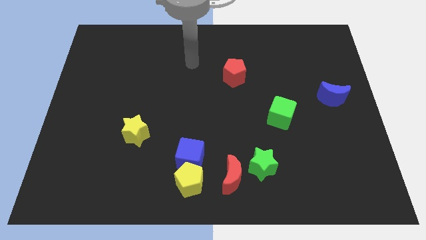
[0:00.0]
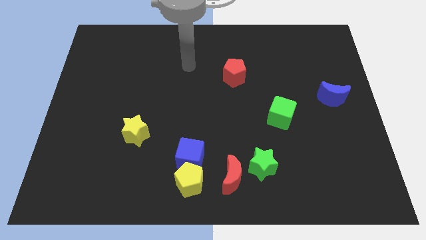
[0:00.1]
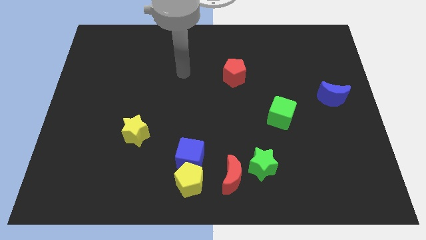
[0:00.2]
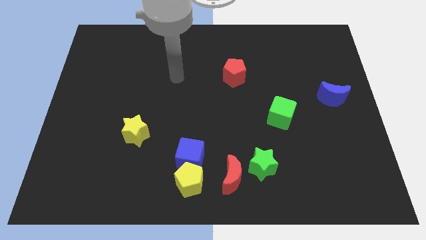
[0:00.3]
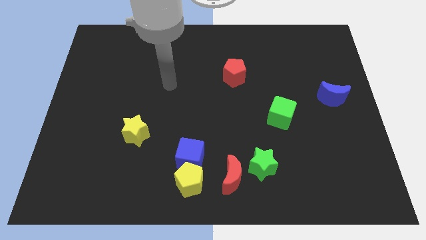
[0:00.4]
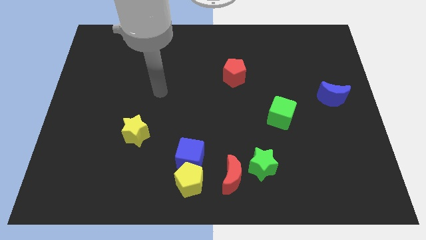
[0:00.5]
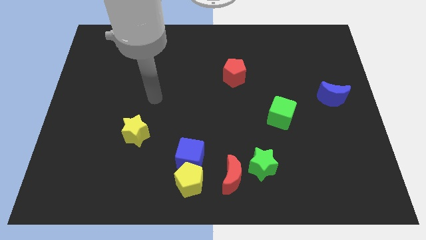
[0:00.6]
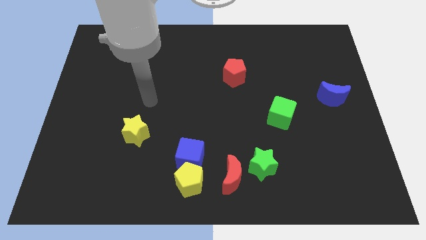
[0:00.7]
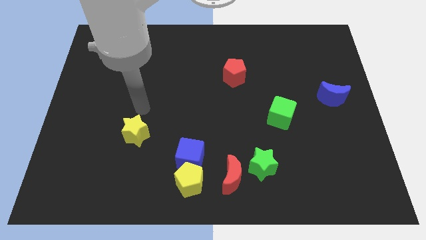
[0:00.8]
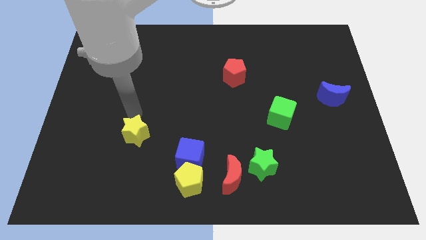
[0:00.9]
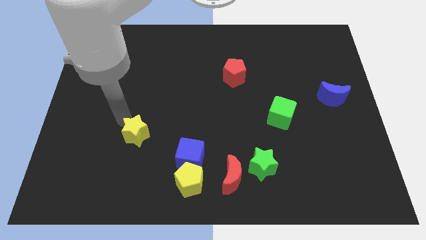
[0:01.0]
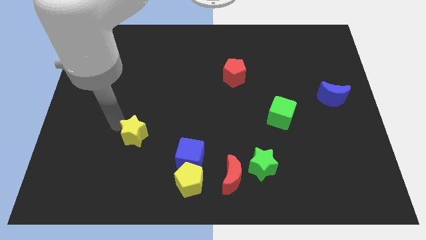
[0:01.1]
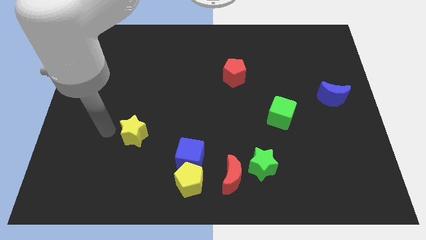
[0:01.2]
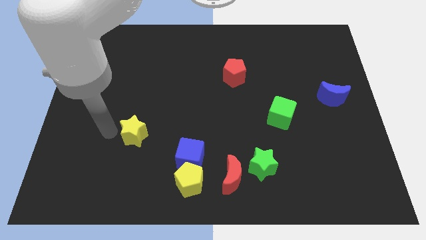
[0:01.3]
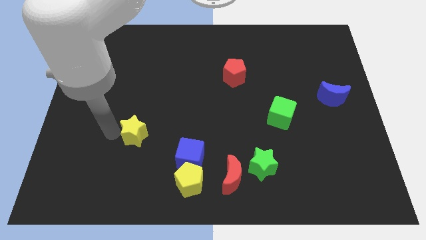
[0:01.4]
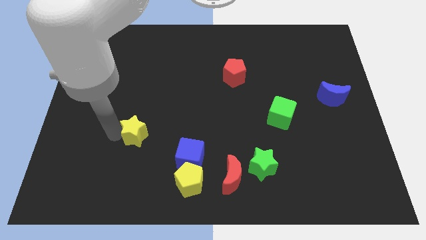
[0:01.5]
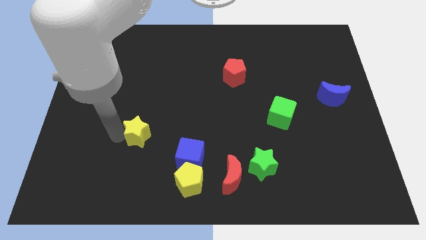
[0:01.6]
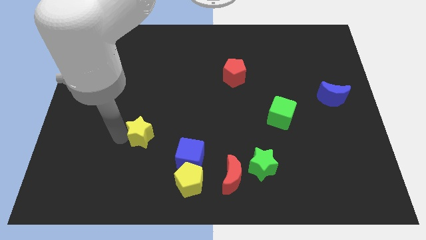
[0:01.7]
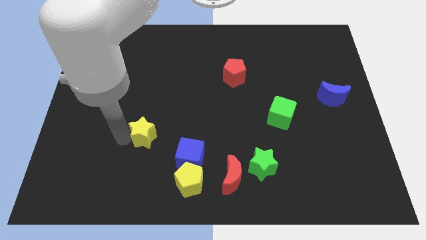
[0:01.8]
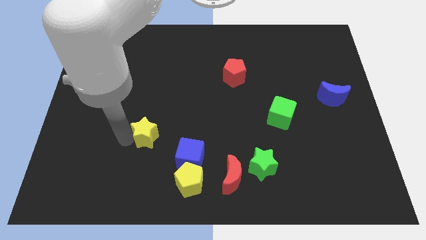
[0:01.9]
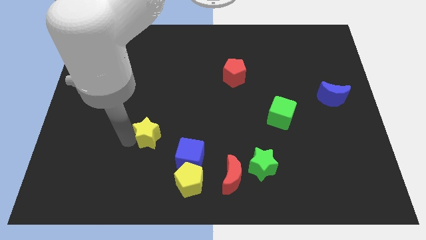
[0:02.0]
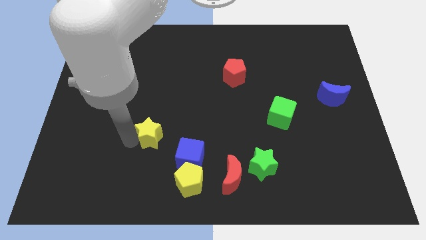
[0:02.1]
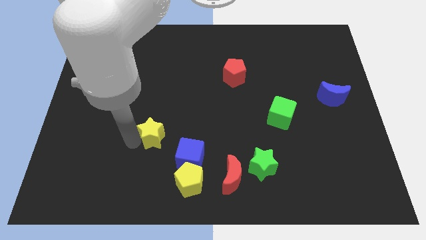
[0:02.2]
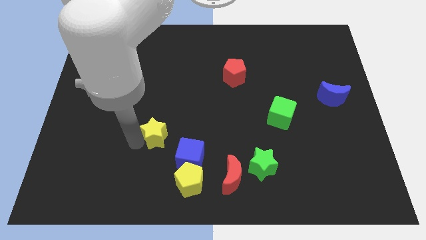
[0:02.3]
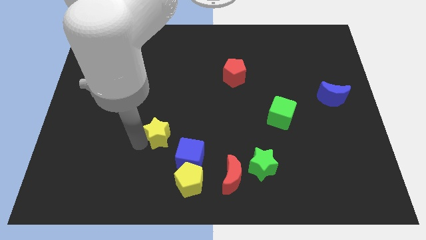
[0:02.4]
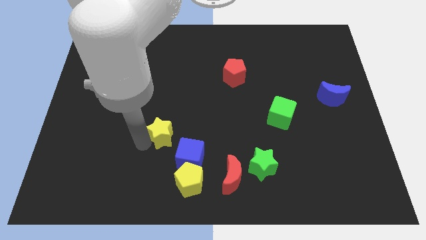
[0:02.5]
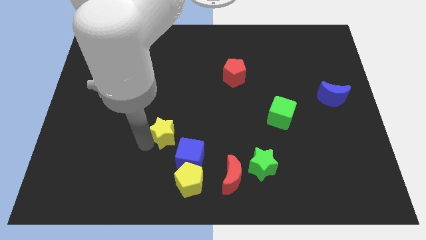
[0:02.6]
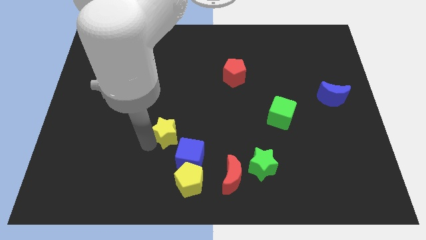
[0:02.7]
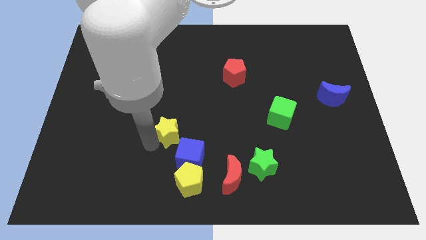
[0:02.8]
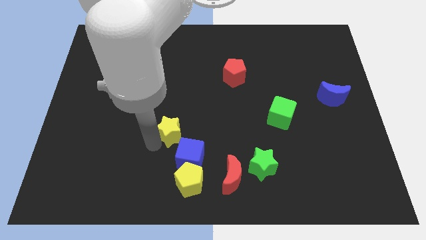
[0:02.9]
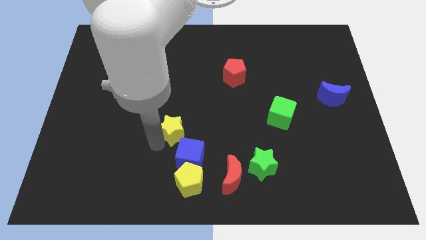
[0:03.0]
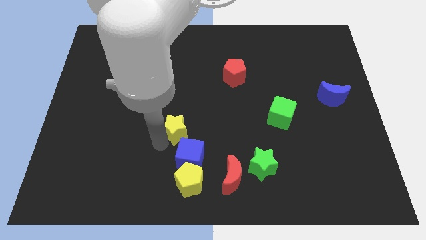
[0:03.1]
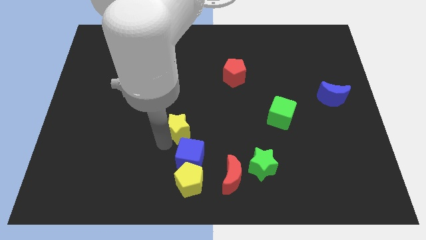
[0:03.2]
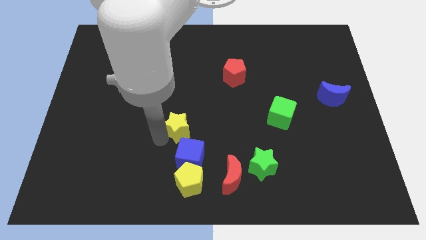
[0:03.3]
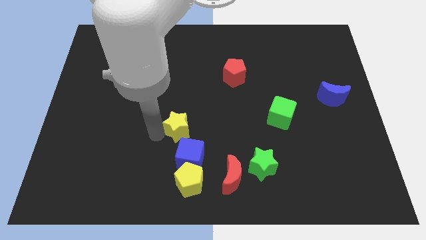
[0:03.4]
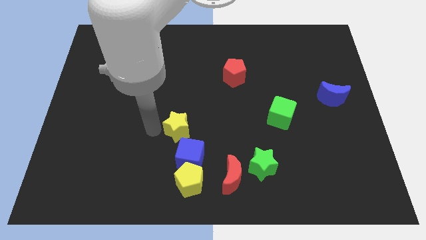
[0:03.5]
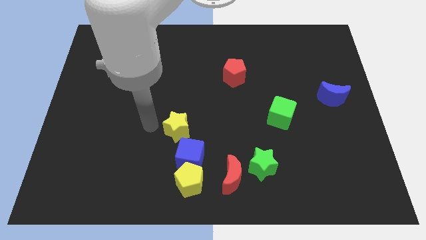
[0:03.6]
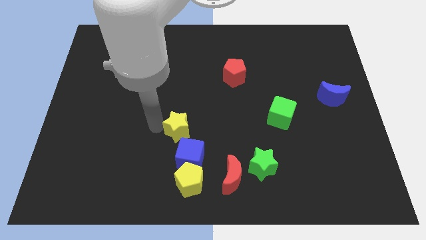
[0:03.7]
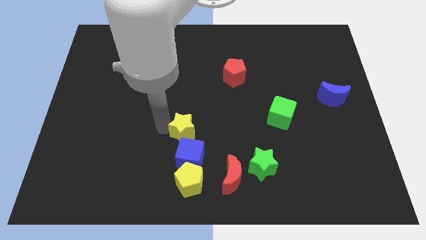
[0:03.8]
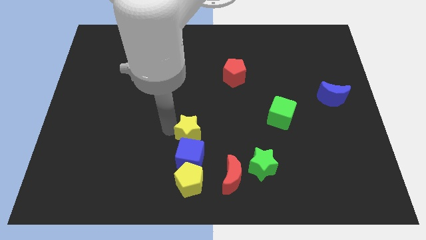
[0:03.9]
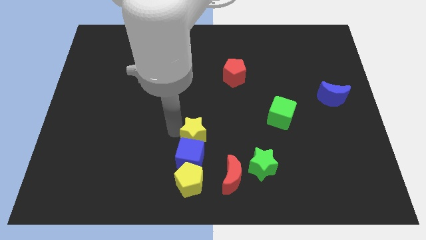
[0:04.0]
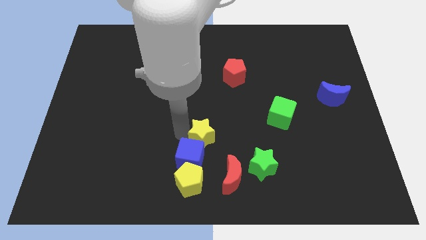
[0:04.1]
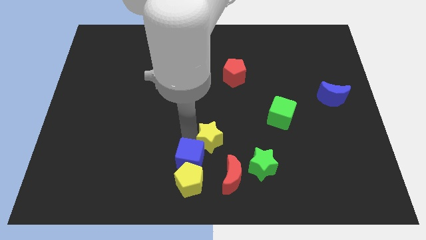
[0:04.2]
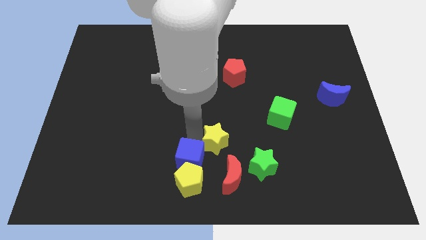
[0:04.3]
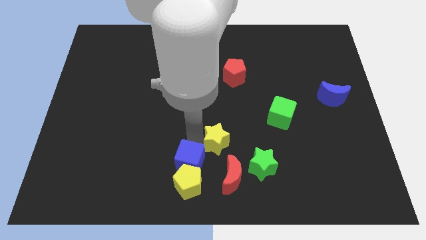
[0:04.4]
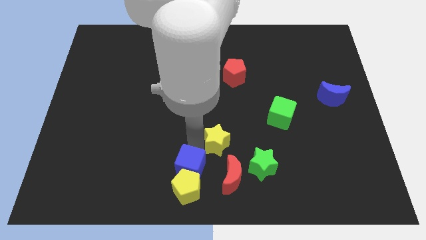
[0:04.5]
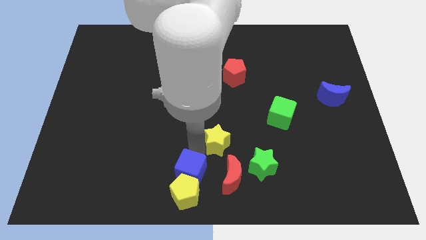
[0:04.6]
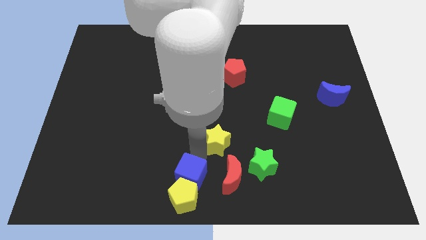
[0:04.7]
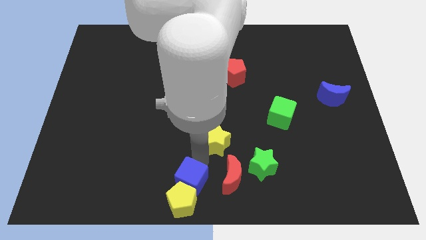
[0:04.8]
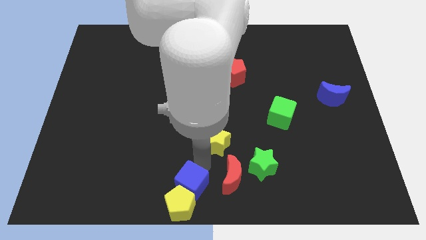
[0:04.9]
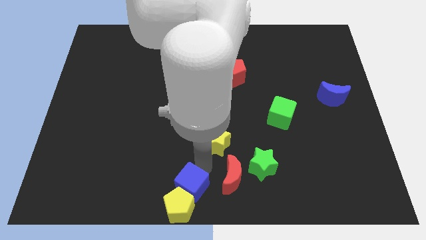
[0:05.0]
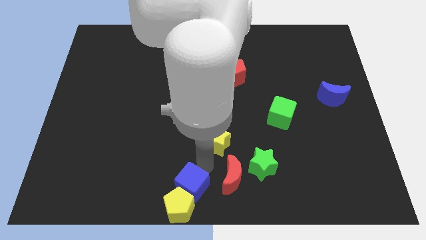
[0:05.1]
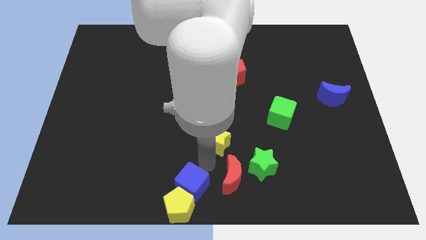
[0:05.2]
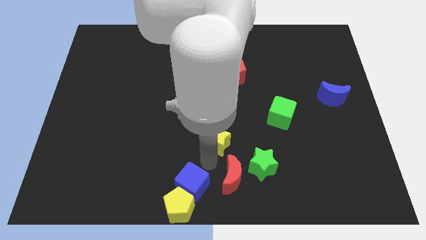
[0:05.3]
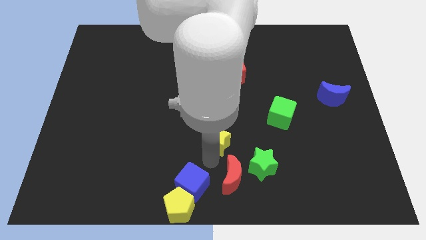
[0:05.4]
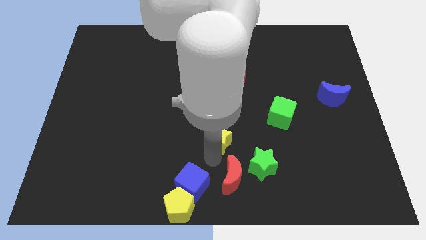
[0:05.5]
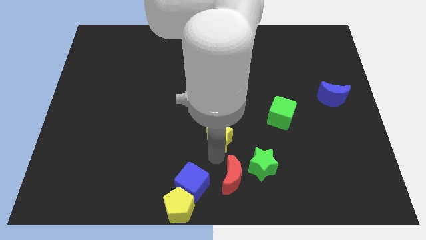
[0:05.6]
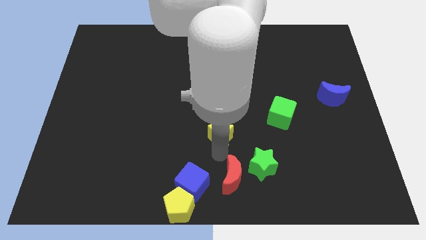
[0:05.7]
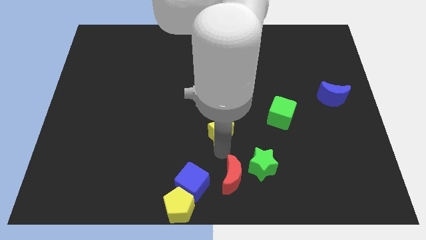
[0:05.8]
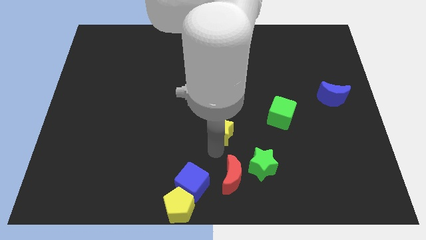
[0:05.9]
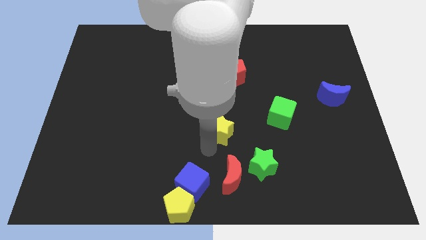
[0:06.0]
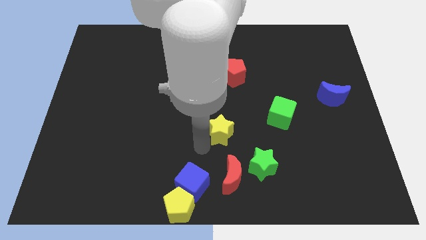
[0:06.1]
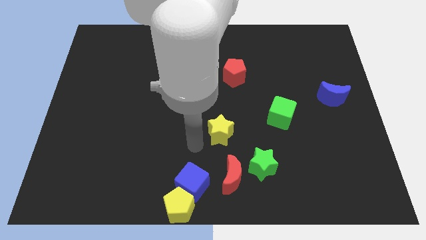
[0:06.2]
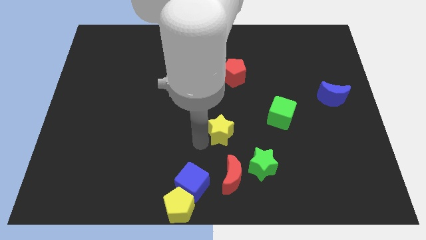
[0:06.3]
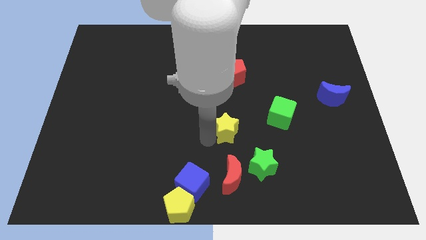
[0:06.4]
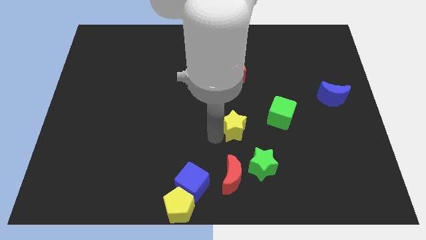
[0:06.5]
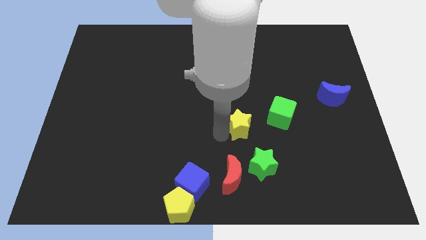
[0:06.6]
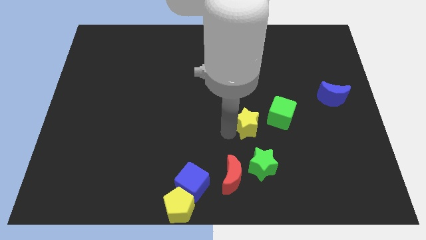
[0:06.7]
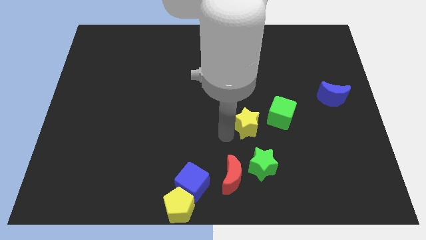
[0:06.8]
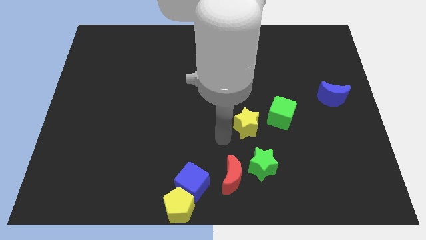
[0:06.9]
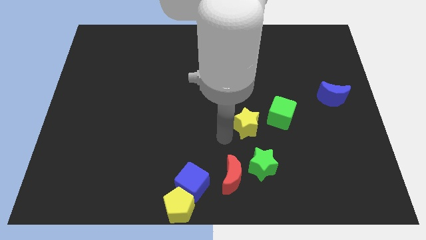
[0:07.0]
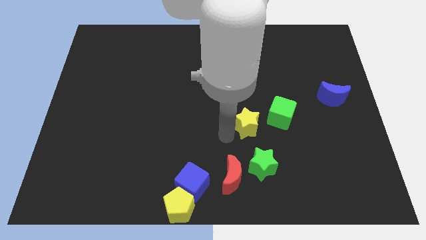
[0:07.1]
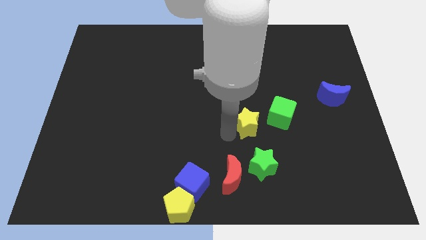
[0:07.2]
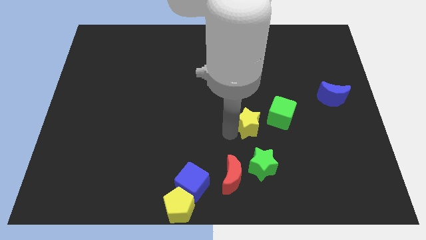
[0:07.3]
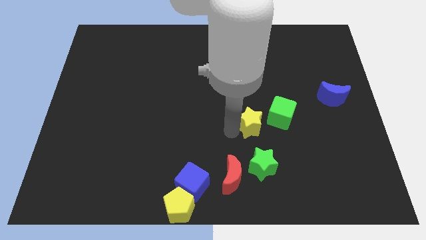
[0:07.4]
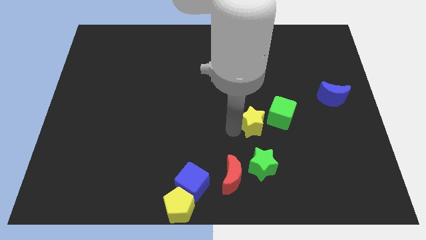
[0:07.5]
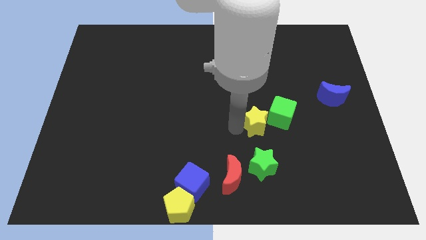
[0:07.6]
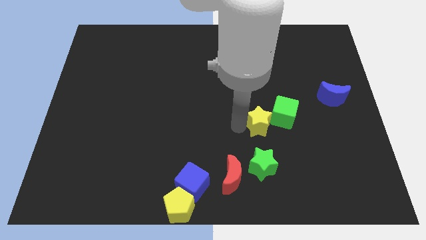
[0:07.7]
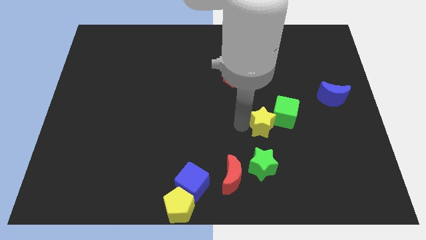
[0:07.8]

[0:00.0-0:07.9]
move the yellow star to the green cube
